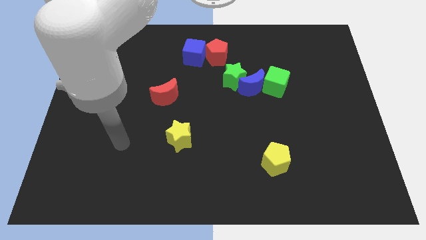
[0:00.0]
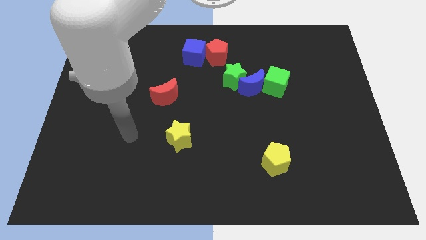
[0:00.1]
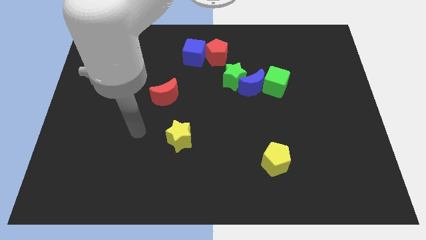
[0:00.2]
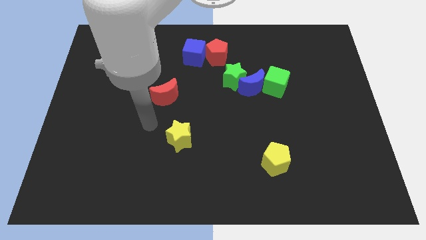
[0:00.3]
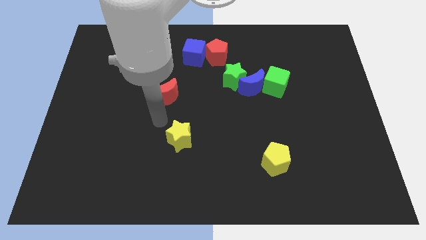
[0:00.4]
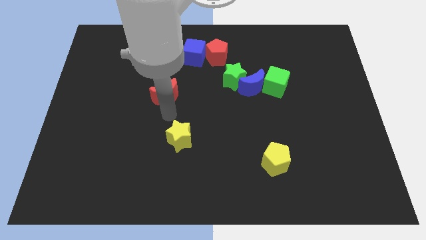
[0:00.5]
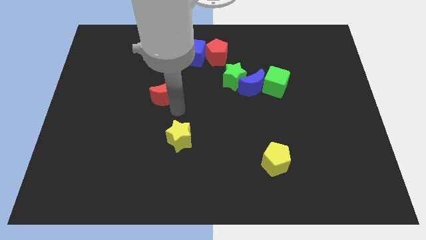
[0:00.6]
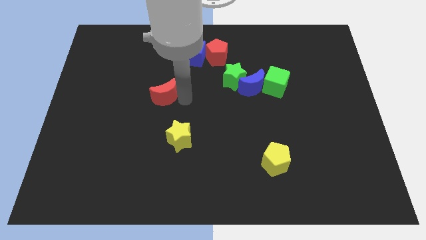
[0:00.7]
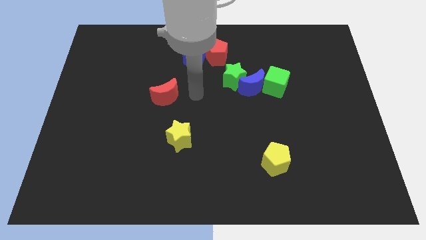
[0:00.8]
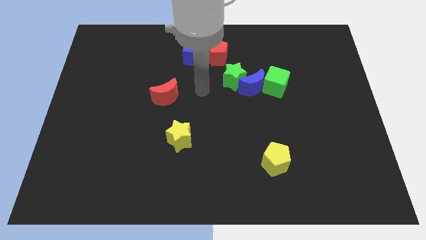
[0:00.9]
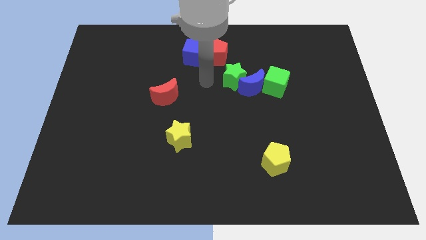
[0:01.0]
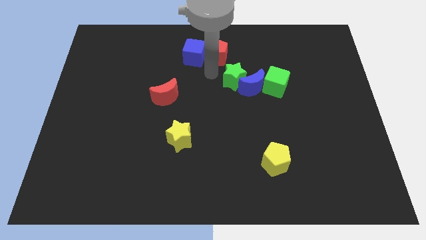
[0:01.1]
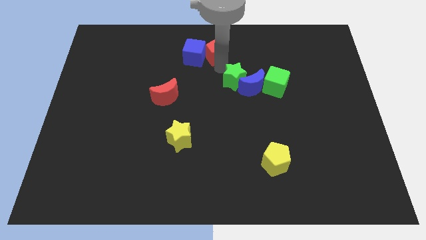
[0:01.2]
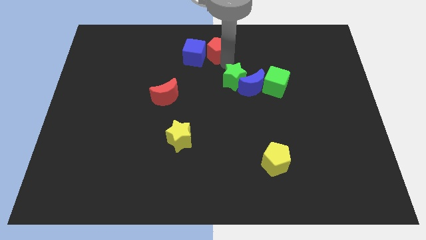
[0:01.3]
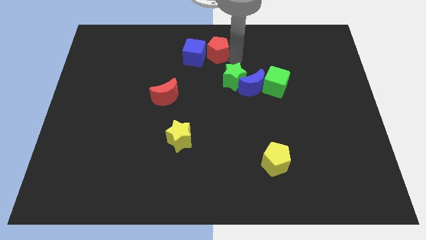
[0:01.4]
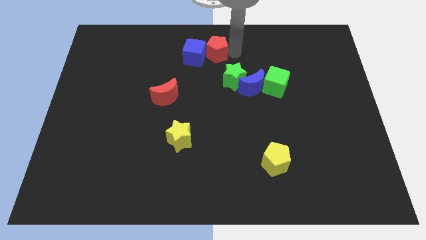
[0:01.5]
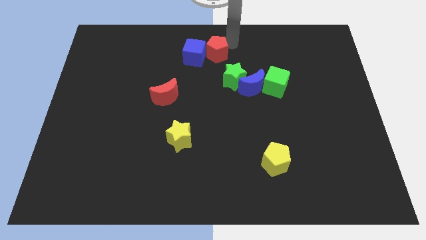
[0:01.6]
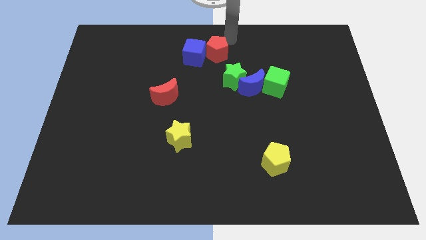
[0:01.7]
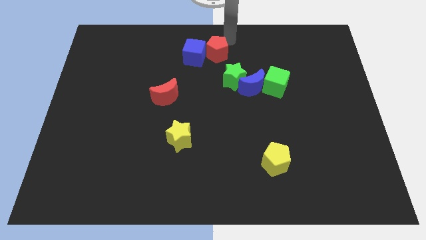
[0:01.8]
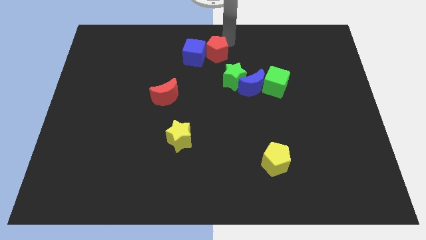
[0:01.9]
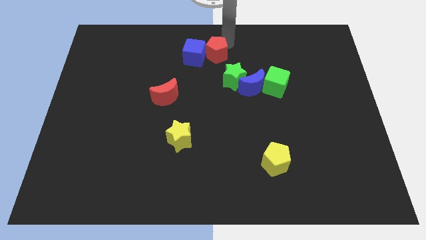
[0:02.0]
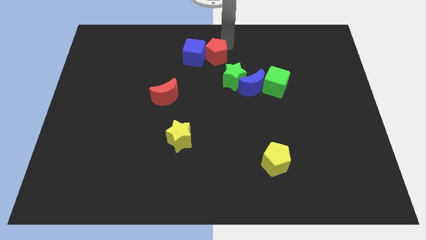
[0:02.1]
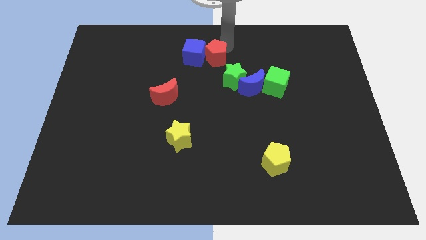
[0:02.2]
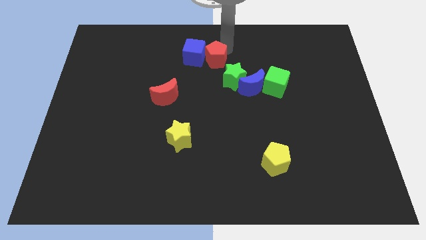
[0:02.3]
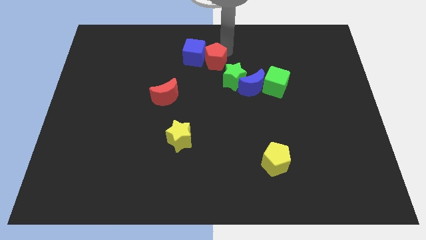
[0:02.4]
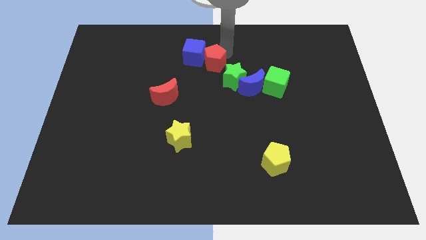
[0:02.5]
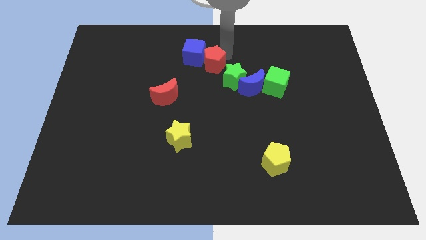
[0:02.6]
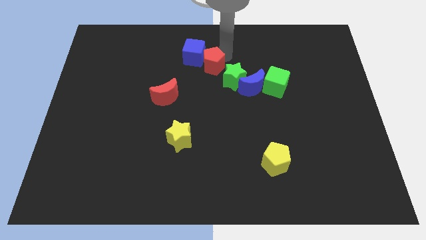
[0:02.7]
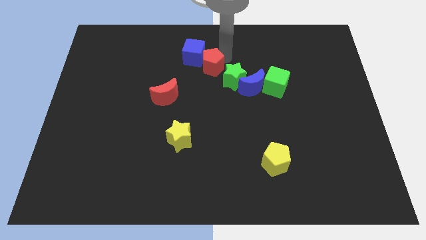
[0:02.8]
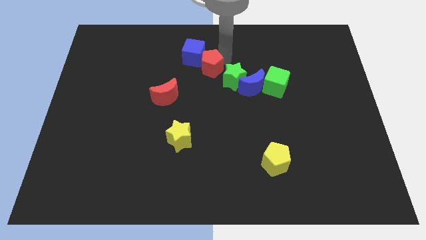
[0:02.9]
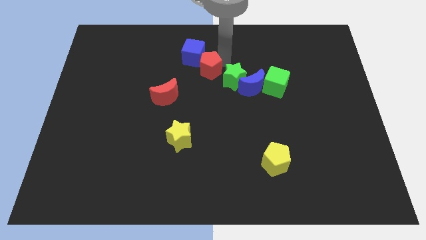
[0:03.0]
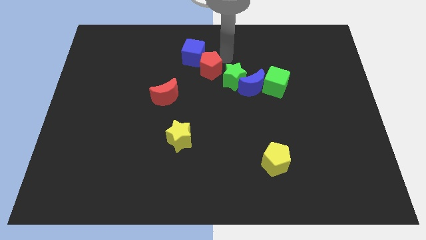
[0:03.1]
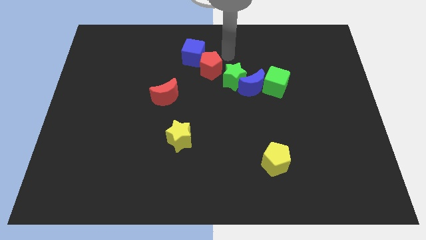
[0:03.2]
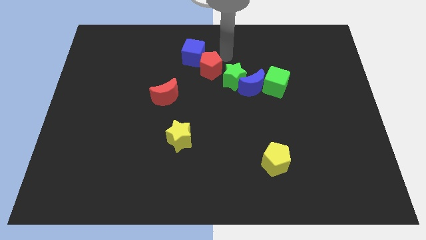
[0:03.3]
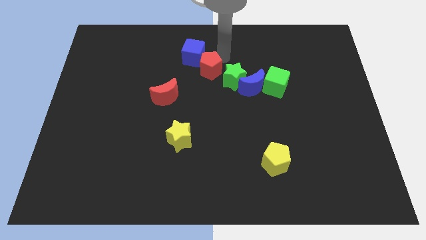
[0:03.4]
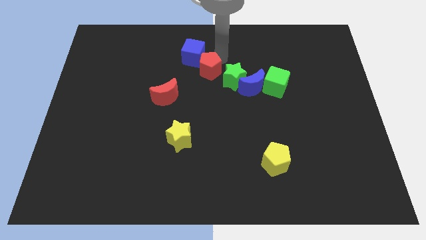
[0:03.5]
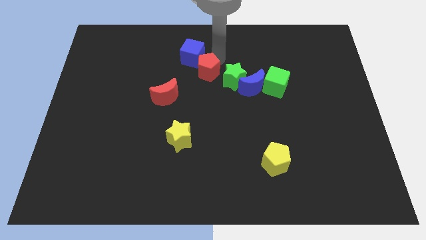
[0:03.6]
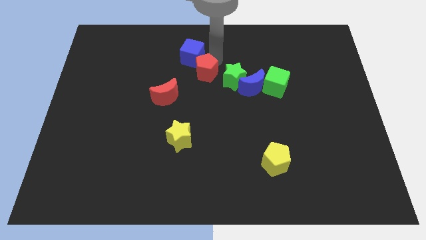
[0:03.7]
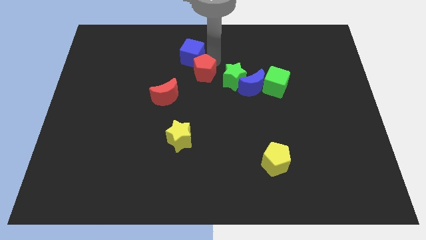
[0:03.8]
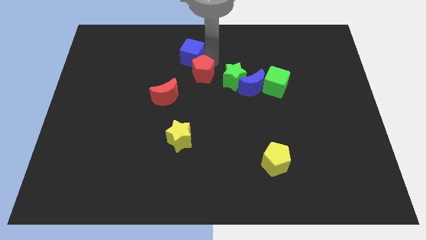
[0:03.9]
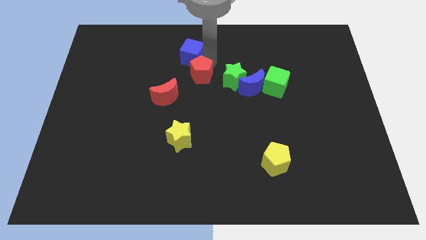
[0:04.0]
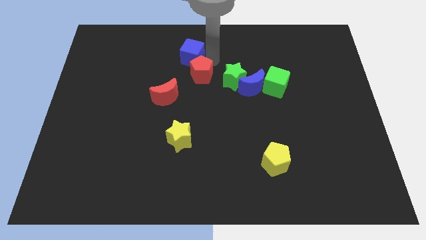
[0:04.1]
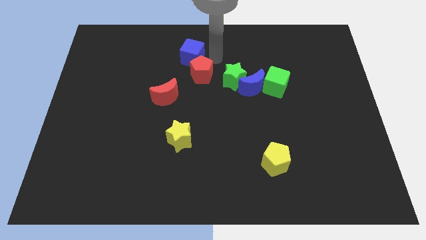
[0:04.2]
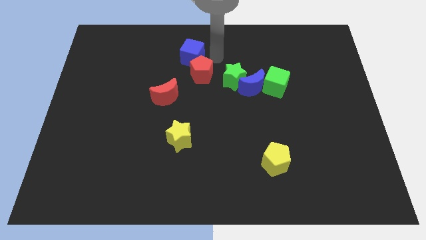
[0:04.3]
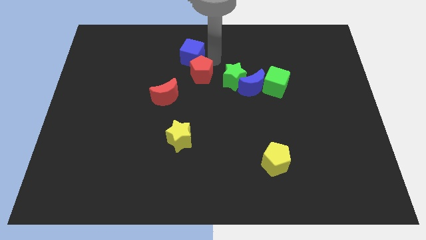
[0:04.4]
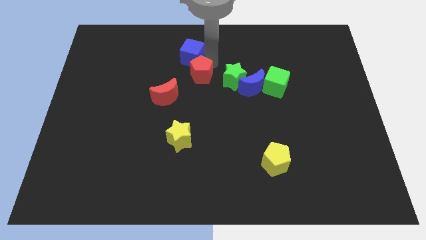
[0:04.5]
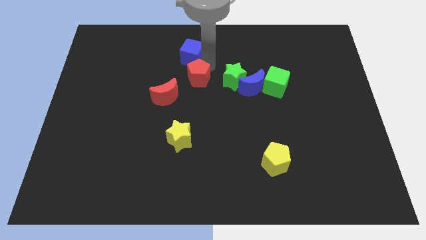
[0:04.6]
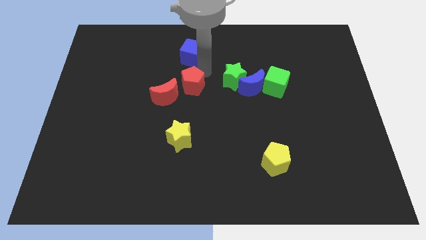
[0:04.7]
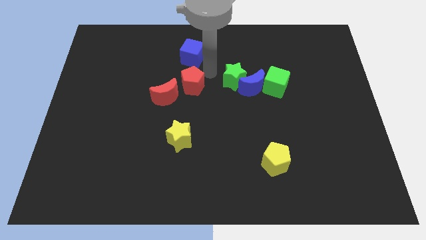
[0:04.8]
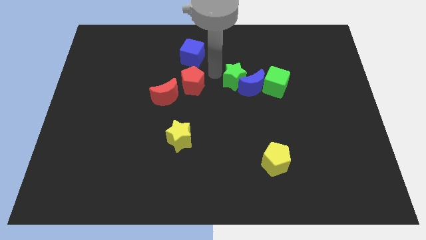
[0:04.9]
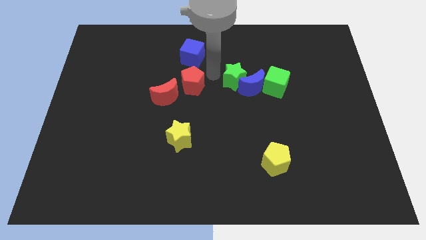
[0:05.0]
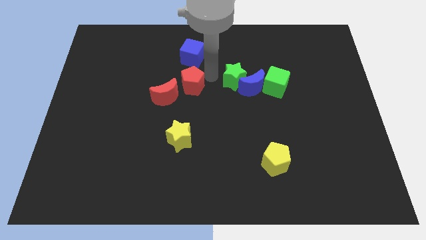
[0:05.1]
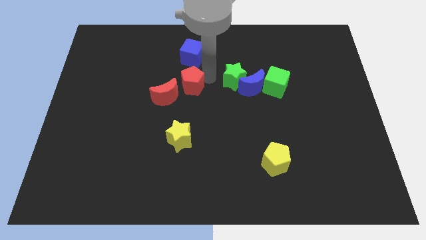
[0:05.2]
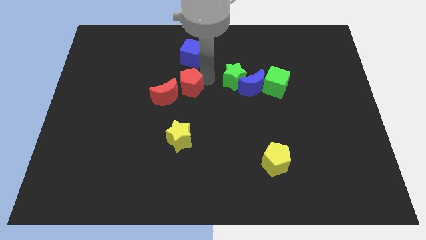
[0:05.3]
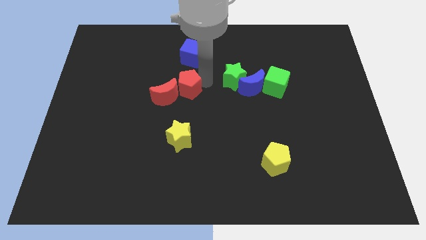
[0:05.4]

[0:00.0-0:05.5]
put the red pentagon to the red moon

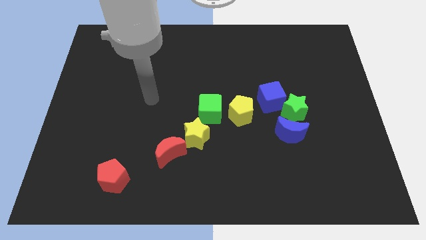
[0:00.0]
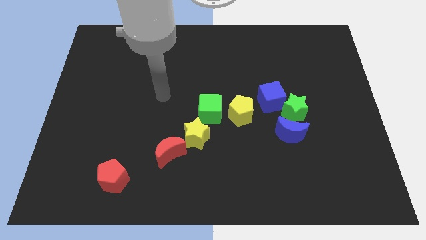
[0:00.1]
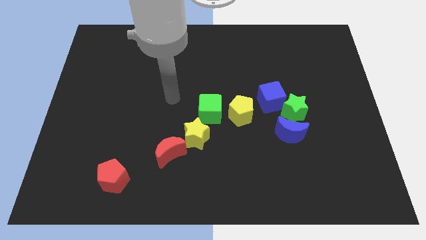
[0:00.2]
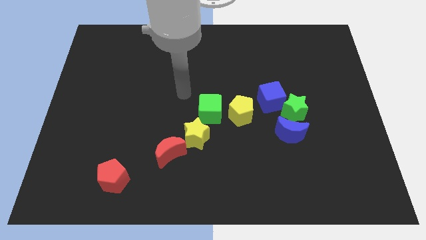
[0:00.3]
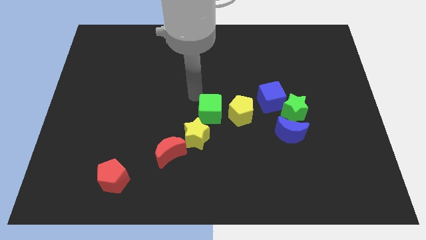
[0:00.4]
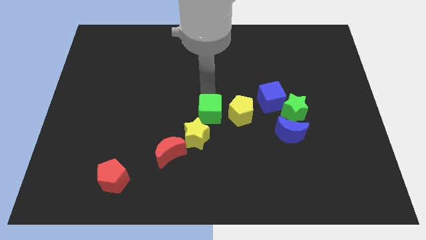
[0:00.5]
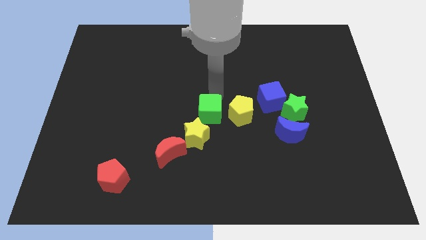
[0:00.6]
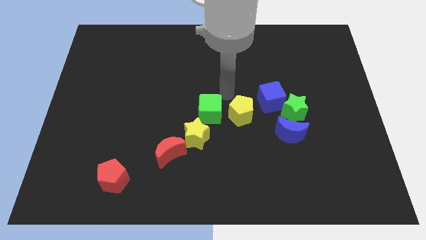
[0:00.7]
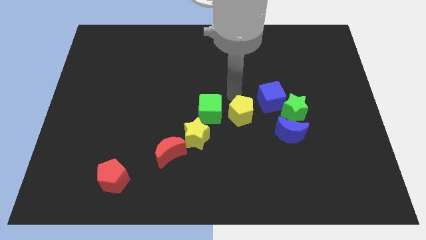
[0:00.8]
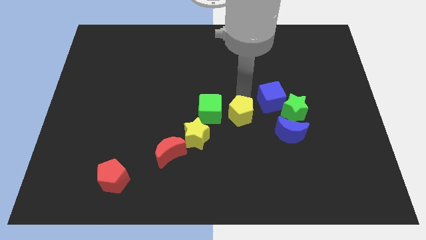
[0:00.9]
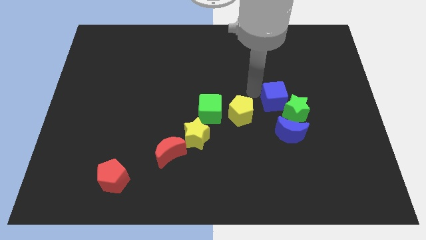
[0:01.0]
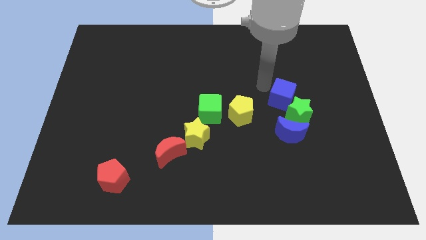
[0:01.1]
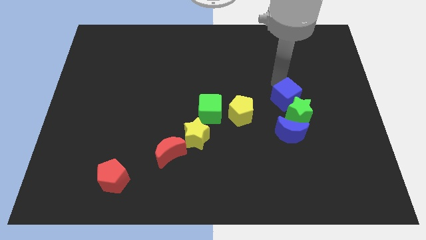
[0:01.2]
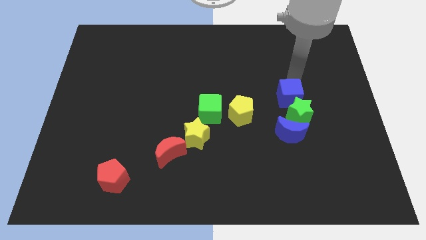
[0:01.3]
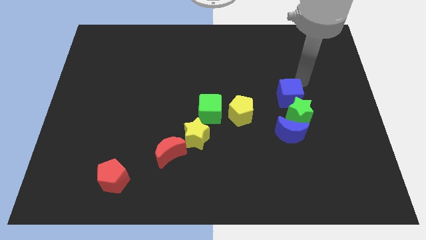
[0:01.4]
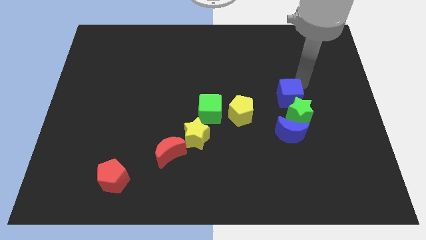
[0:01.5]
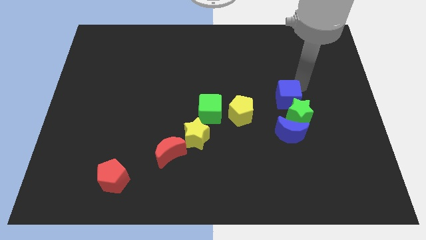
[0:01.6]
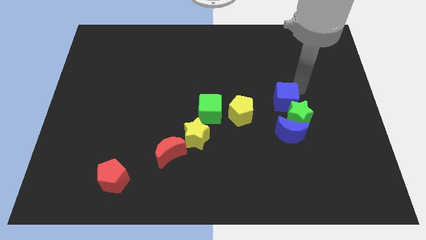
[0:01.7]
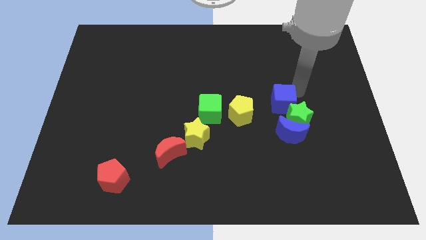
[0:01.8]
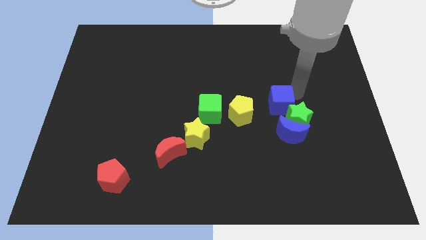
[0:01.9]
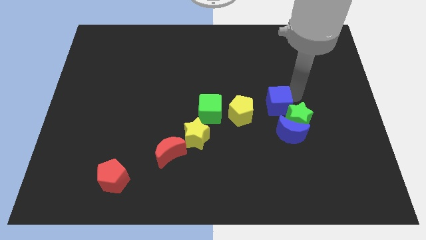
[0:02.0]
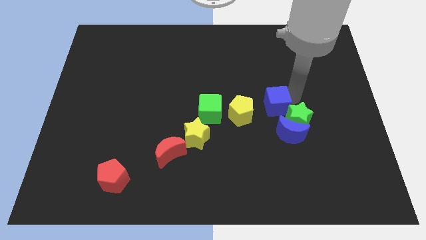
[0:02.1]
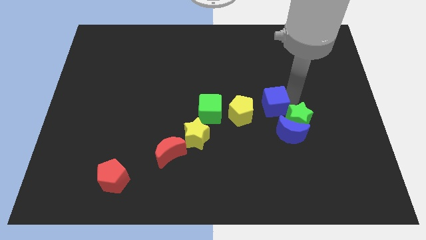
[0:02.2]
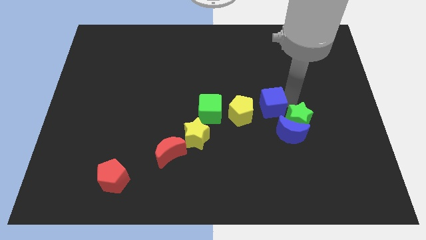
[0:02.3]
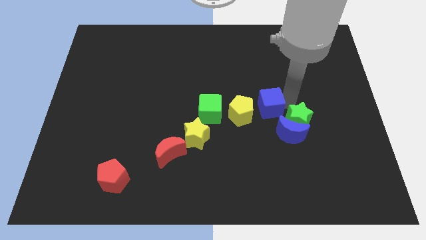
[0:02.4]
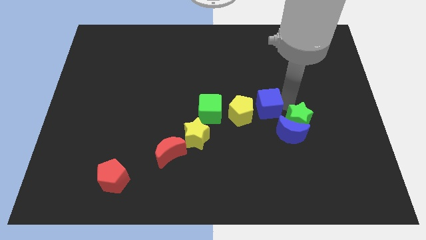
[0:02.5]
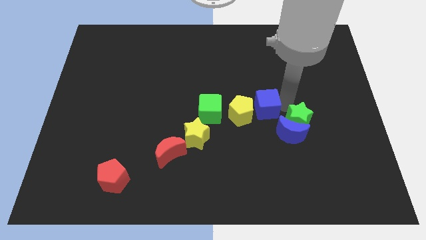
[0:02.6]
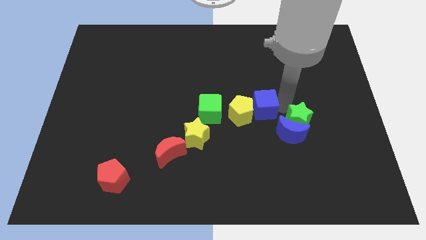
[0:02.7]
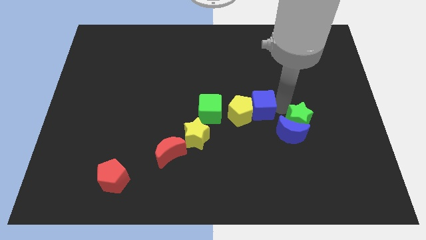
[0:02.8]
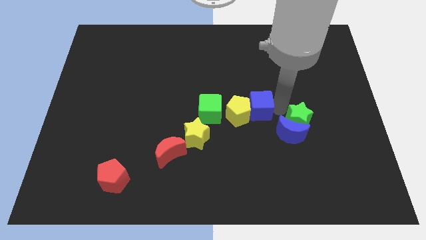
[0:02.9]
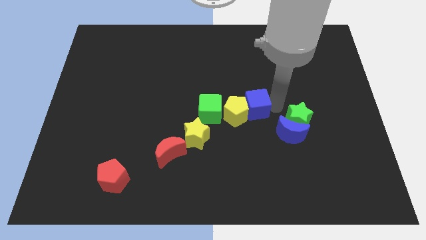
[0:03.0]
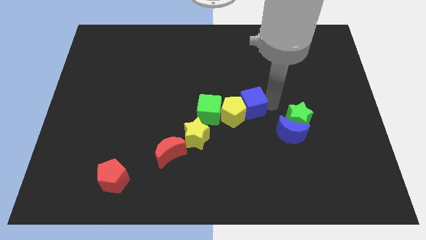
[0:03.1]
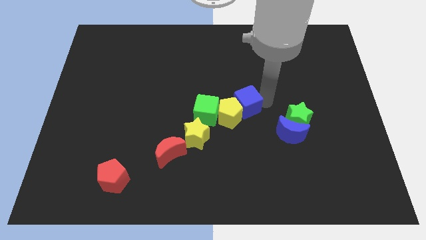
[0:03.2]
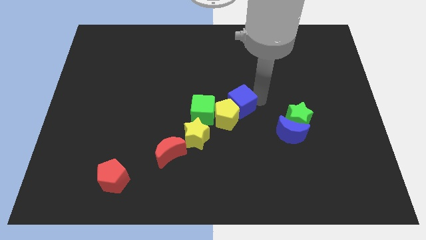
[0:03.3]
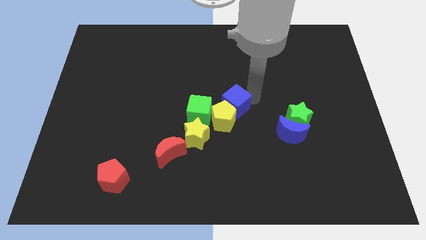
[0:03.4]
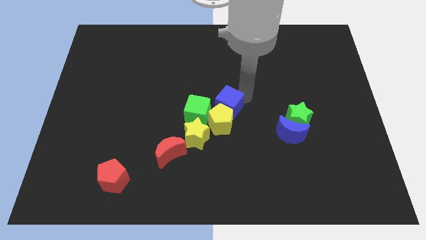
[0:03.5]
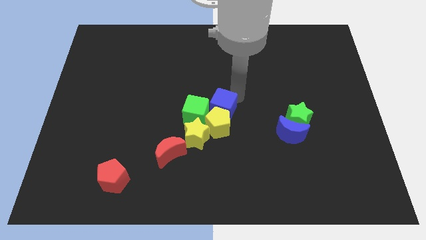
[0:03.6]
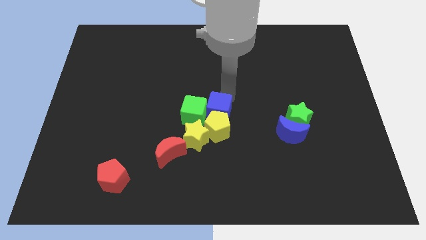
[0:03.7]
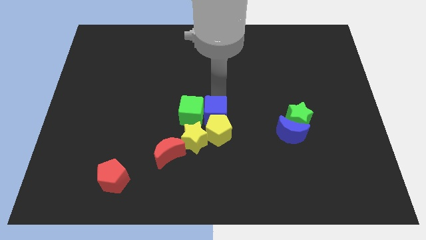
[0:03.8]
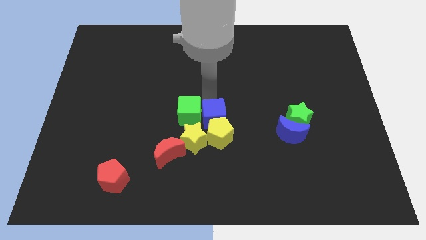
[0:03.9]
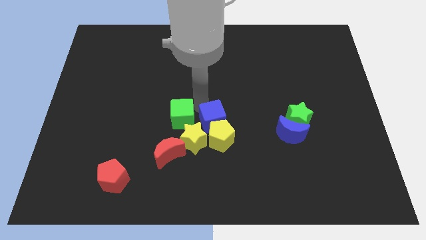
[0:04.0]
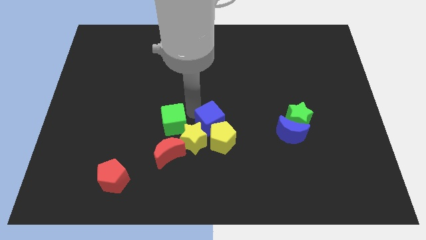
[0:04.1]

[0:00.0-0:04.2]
push the blue cube close to the yellow star
